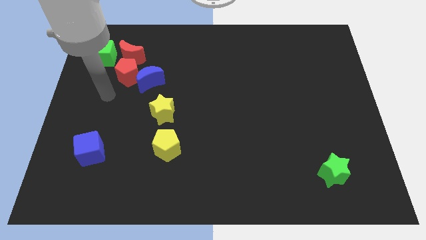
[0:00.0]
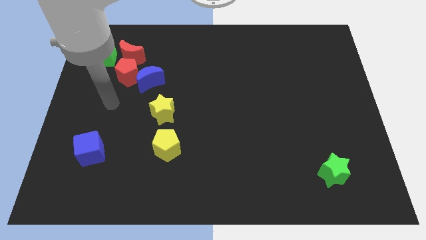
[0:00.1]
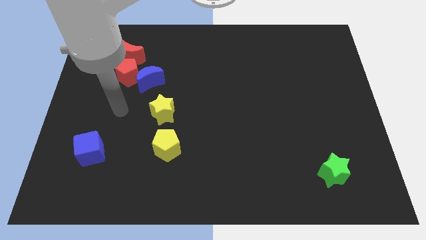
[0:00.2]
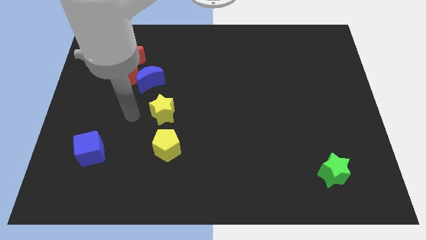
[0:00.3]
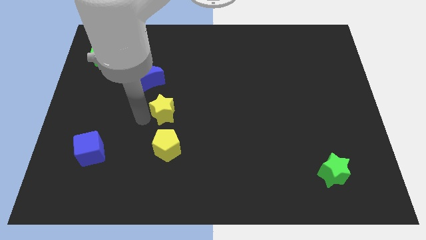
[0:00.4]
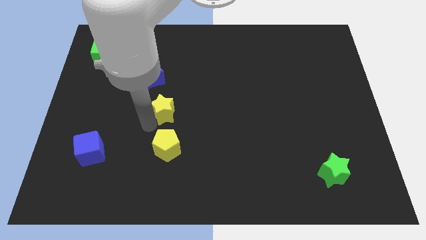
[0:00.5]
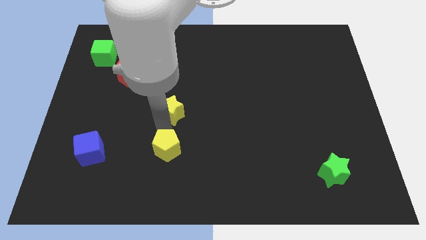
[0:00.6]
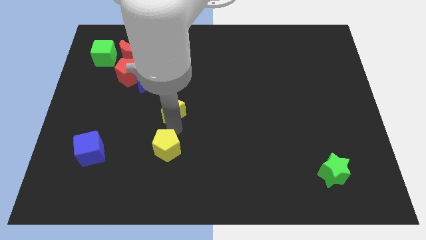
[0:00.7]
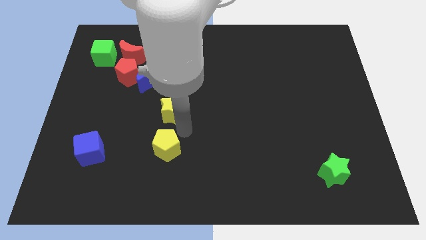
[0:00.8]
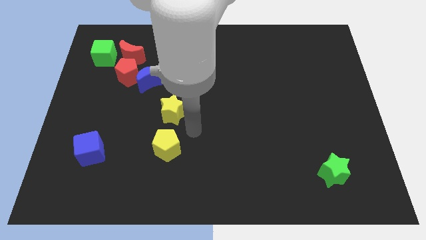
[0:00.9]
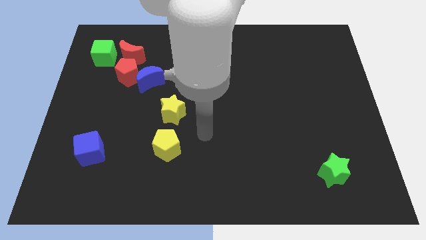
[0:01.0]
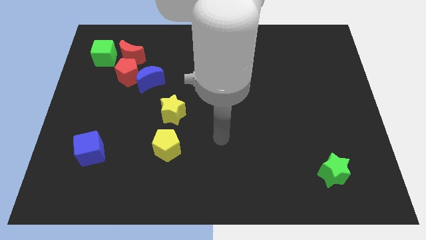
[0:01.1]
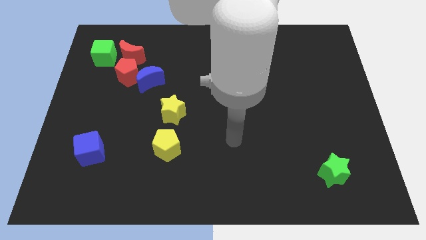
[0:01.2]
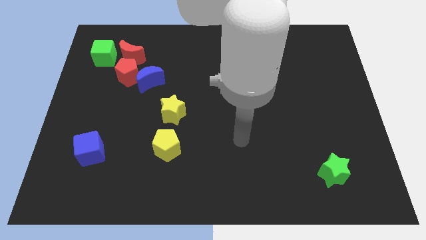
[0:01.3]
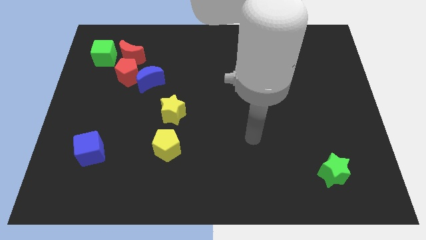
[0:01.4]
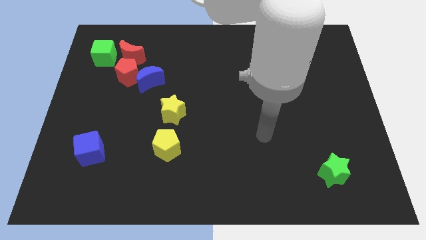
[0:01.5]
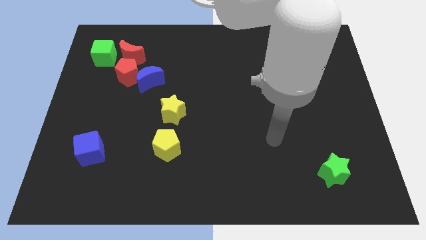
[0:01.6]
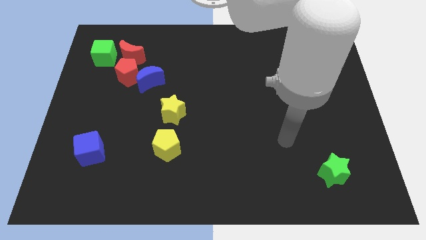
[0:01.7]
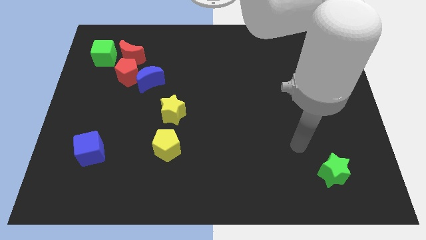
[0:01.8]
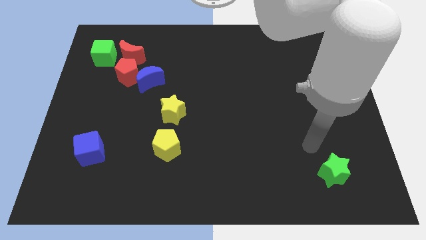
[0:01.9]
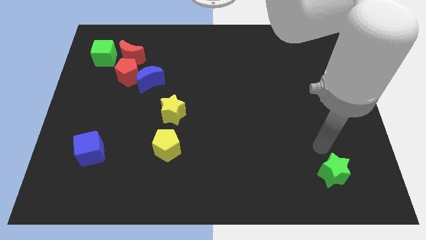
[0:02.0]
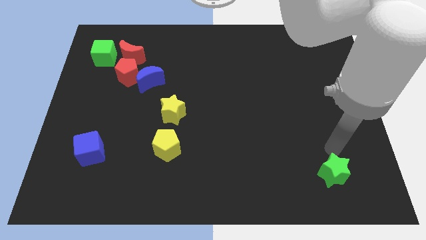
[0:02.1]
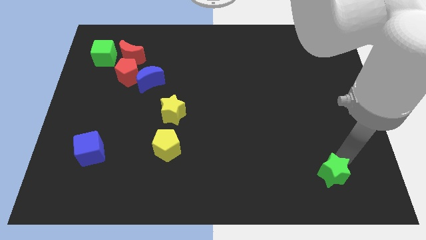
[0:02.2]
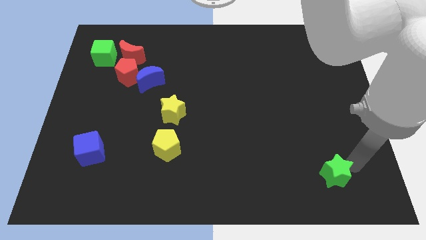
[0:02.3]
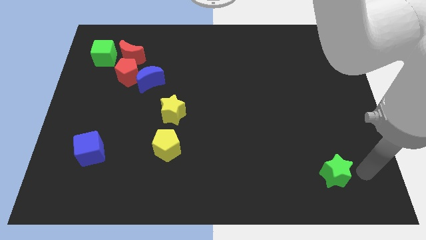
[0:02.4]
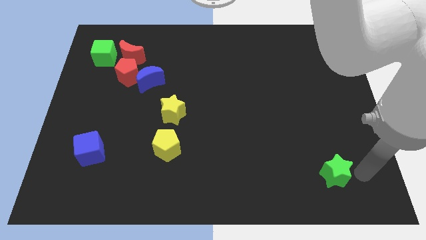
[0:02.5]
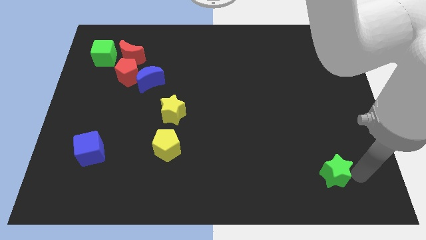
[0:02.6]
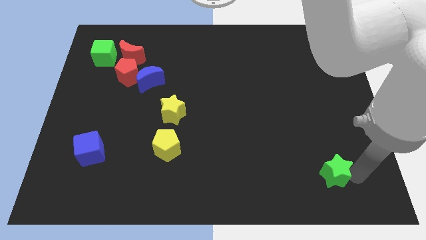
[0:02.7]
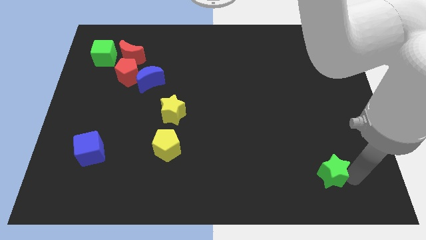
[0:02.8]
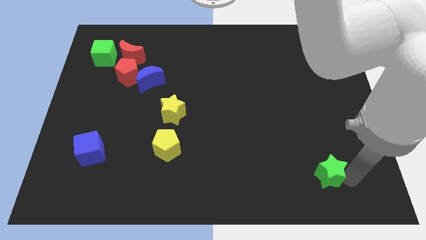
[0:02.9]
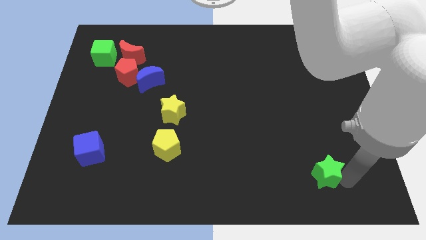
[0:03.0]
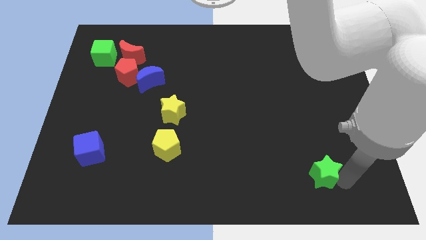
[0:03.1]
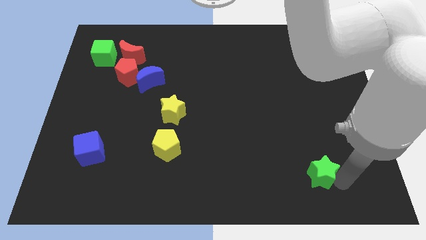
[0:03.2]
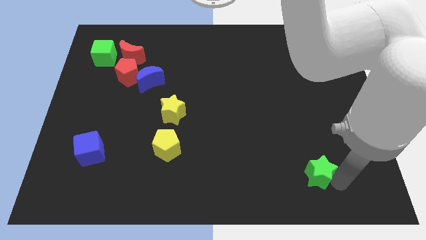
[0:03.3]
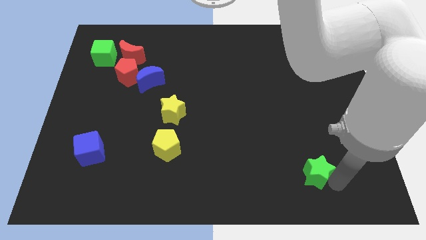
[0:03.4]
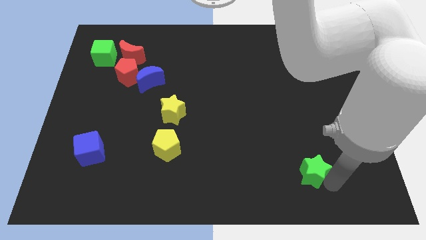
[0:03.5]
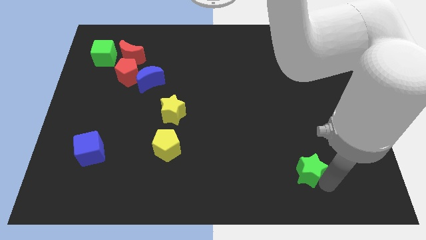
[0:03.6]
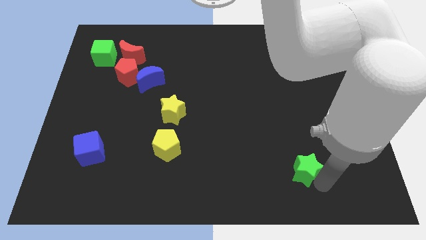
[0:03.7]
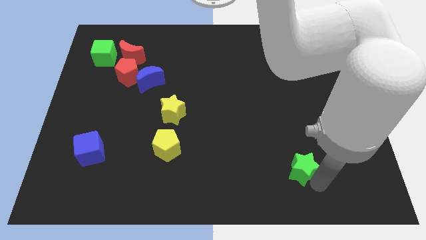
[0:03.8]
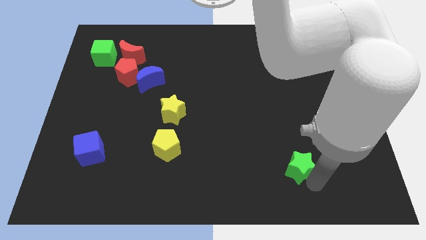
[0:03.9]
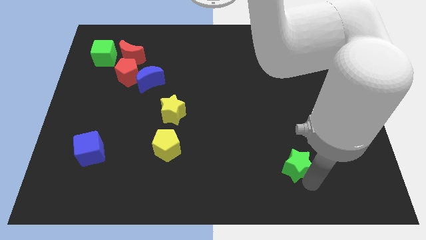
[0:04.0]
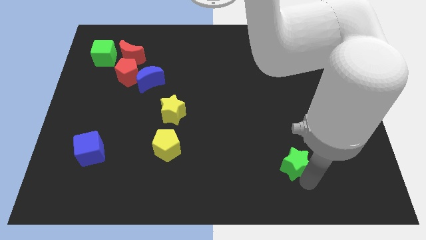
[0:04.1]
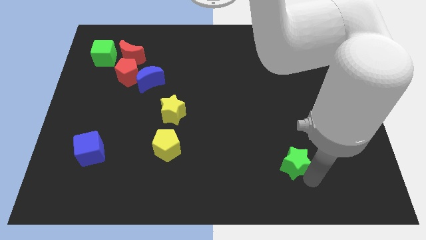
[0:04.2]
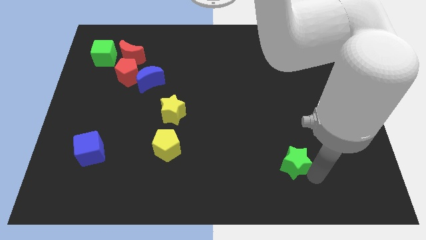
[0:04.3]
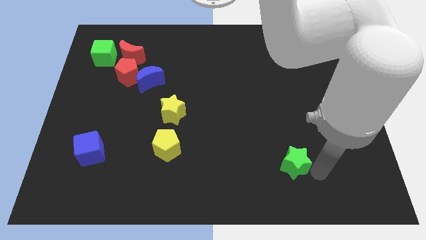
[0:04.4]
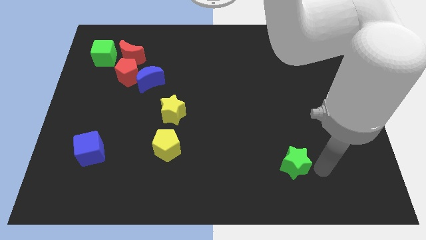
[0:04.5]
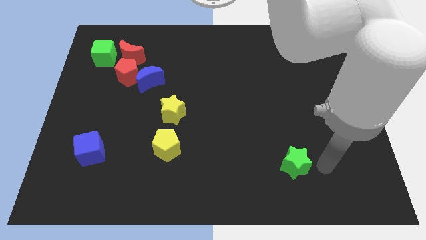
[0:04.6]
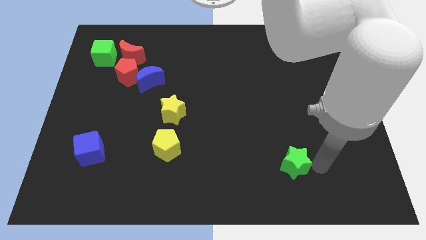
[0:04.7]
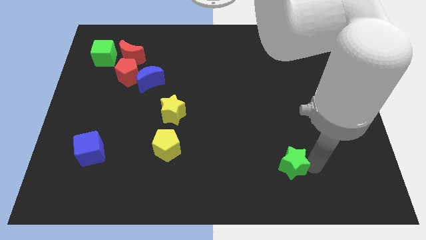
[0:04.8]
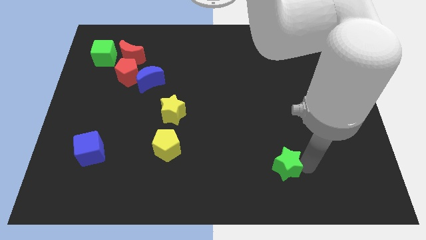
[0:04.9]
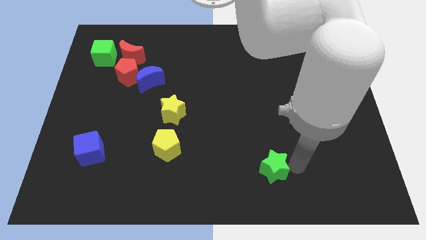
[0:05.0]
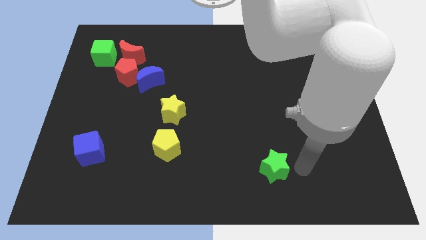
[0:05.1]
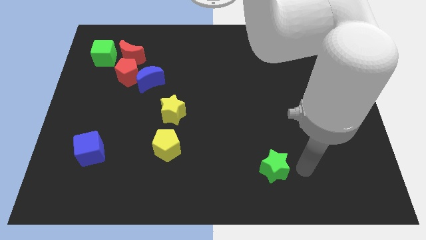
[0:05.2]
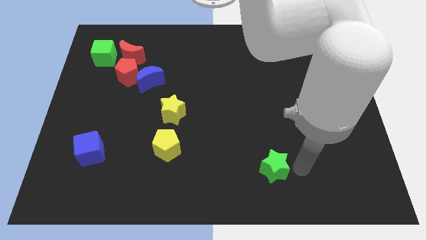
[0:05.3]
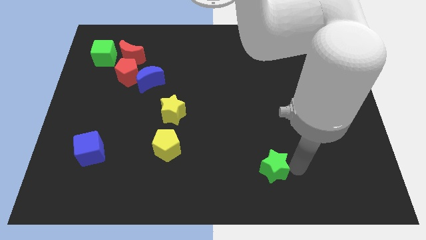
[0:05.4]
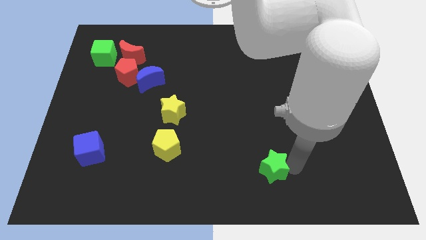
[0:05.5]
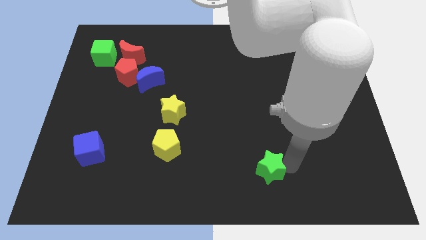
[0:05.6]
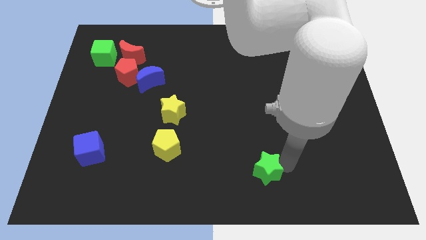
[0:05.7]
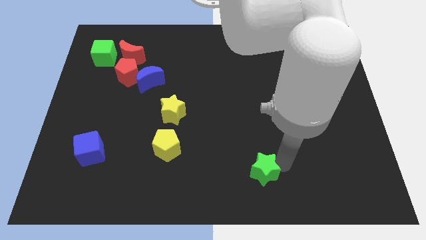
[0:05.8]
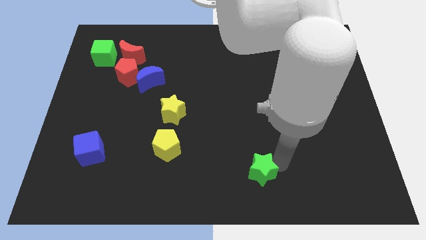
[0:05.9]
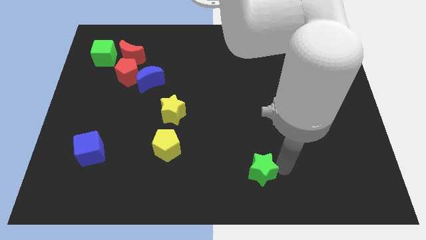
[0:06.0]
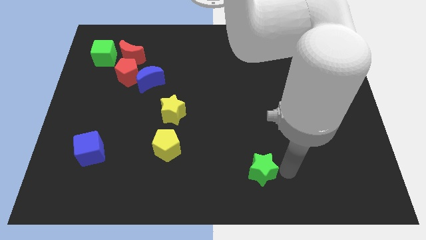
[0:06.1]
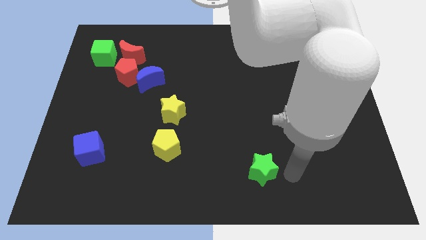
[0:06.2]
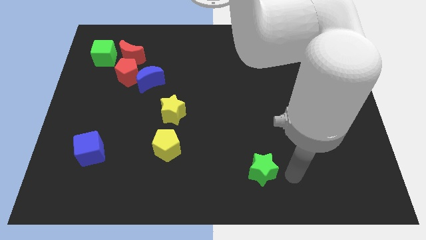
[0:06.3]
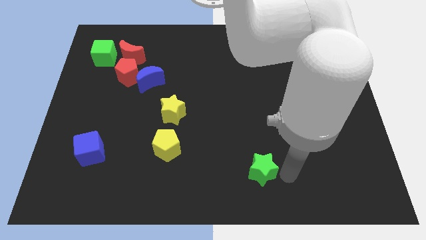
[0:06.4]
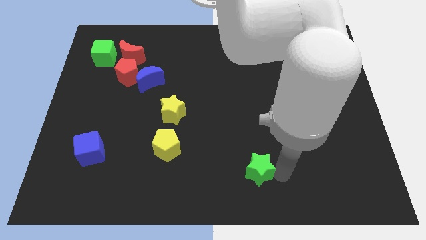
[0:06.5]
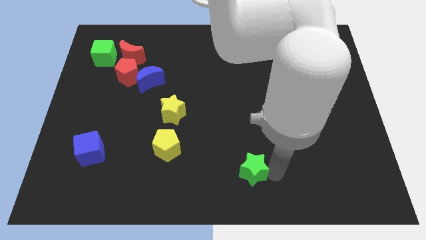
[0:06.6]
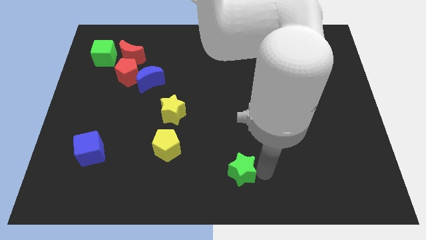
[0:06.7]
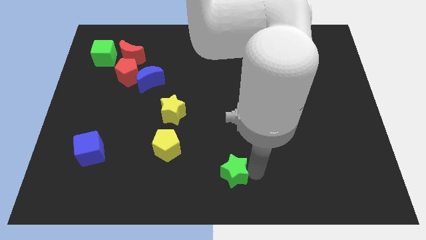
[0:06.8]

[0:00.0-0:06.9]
move the green star left

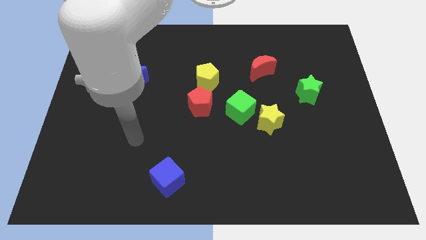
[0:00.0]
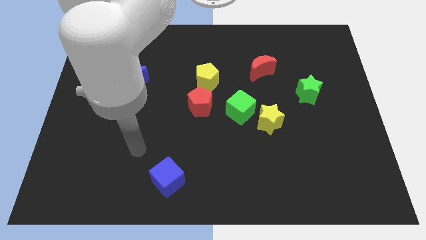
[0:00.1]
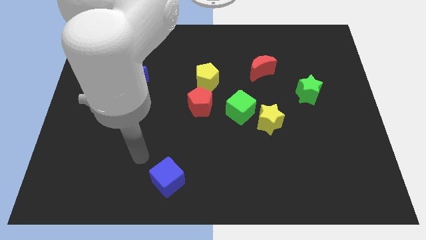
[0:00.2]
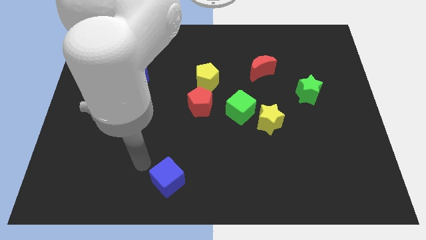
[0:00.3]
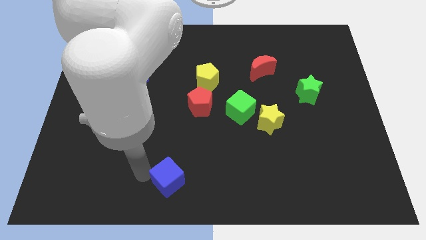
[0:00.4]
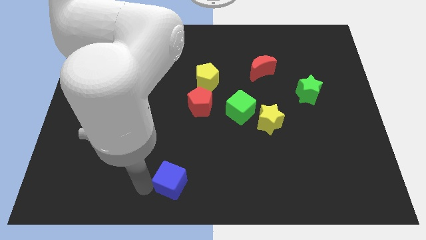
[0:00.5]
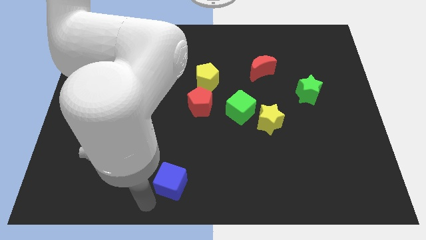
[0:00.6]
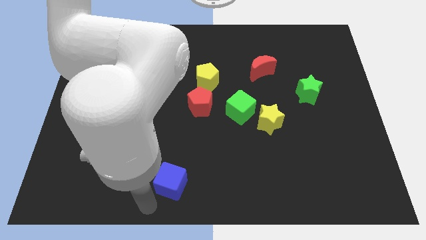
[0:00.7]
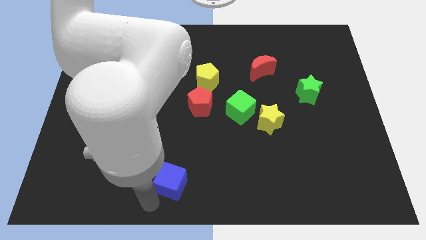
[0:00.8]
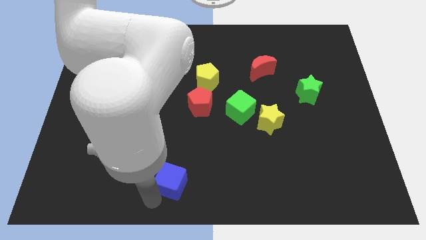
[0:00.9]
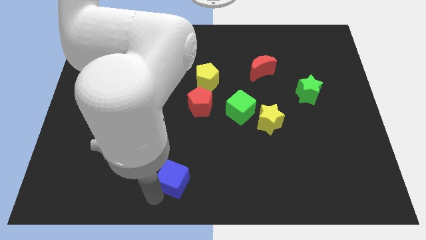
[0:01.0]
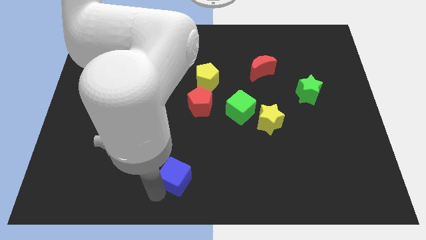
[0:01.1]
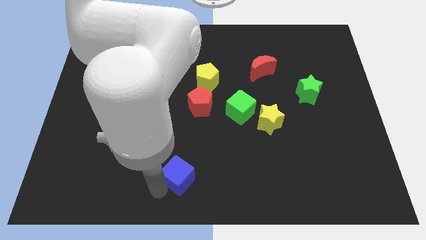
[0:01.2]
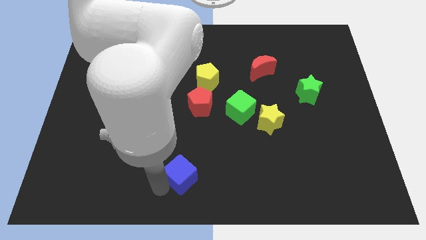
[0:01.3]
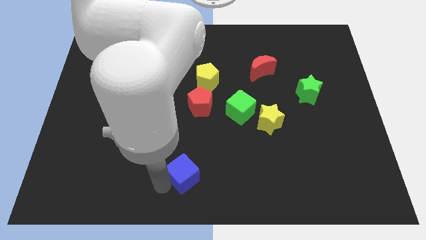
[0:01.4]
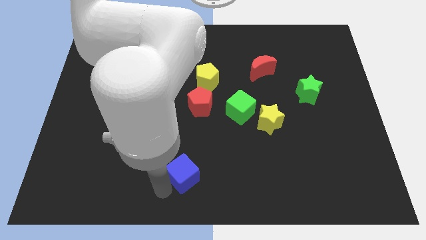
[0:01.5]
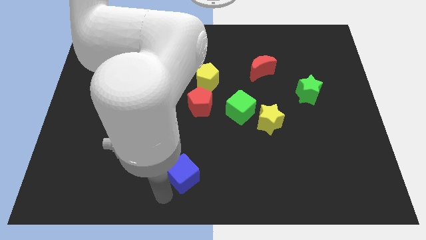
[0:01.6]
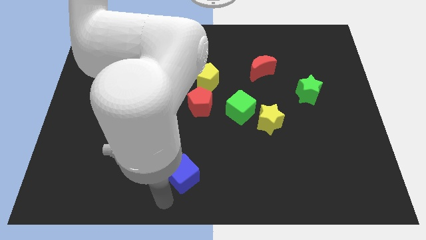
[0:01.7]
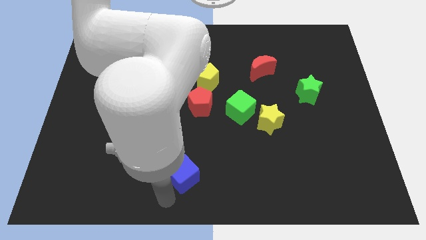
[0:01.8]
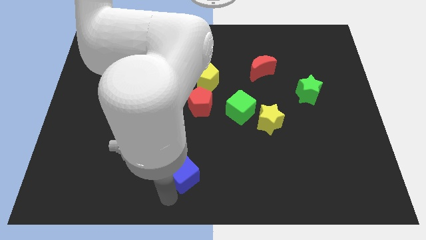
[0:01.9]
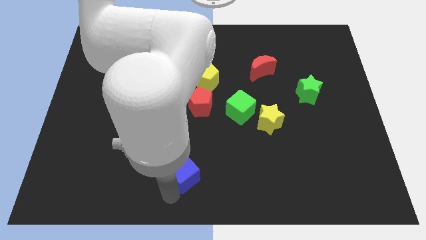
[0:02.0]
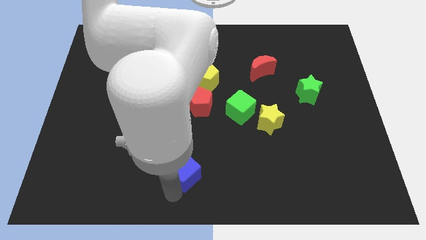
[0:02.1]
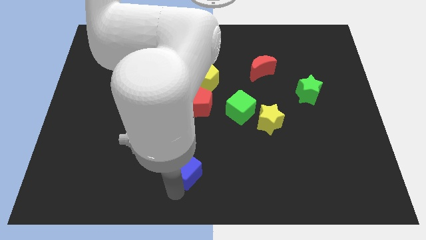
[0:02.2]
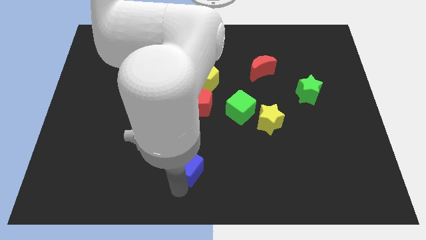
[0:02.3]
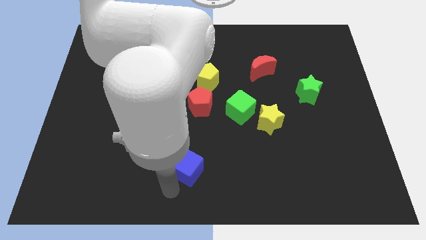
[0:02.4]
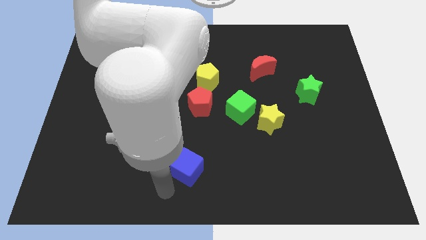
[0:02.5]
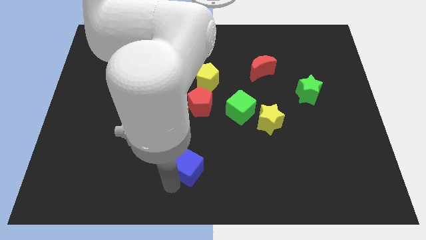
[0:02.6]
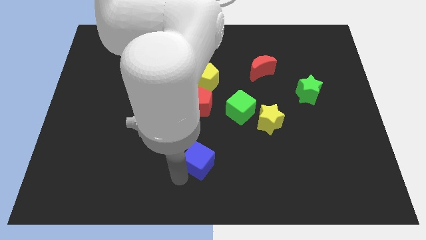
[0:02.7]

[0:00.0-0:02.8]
move the blue cube up and right diagonally a bit
